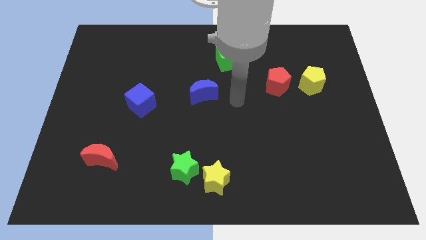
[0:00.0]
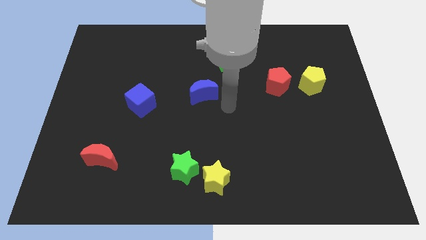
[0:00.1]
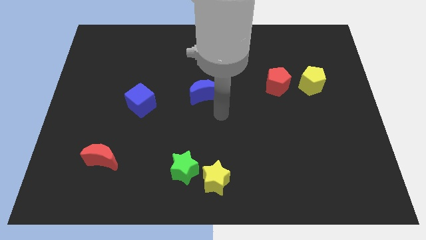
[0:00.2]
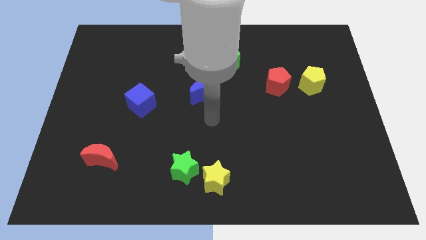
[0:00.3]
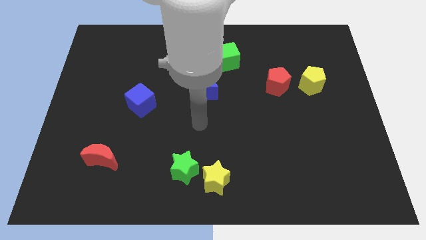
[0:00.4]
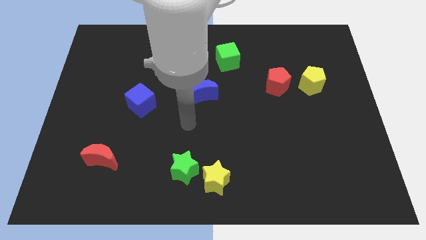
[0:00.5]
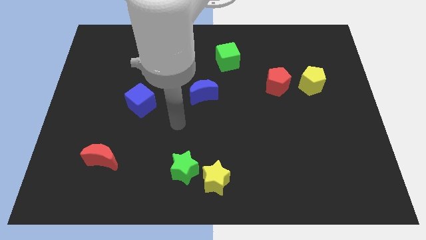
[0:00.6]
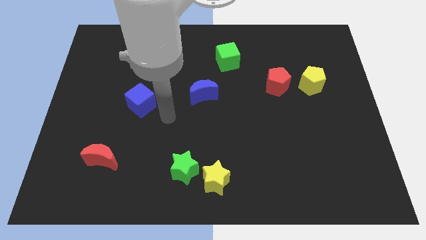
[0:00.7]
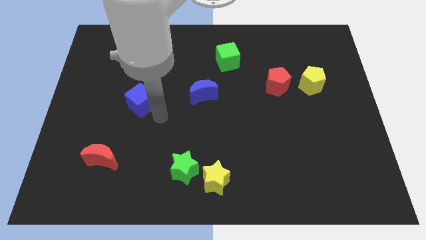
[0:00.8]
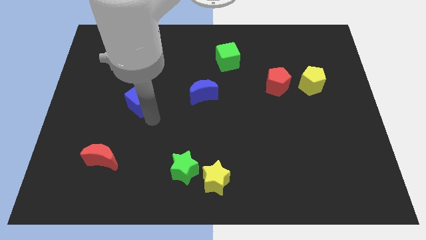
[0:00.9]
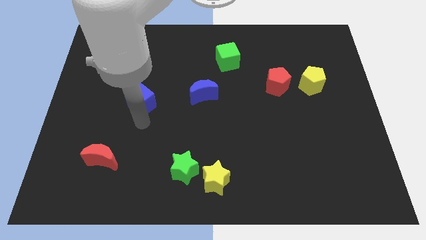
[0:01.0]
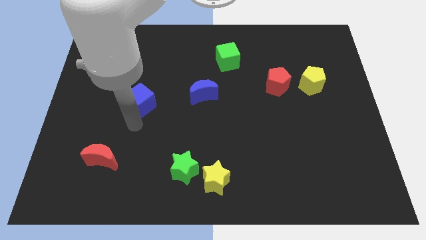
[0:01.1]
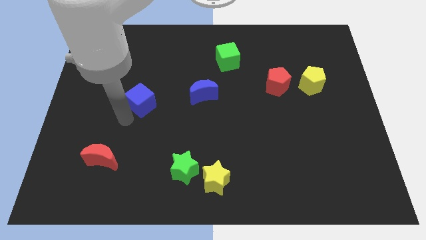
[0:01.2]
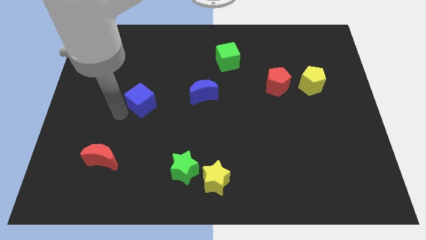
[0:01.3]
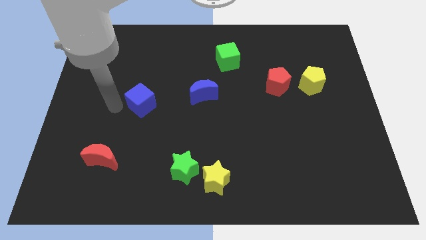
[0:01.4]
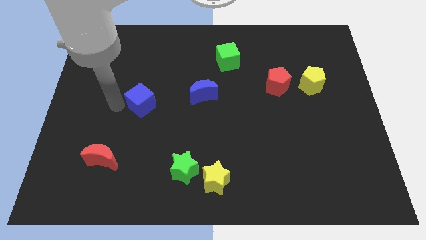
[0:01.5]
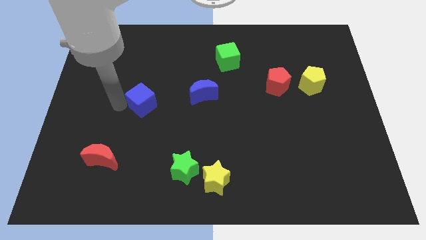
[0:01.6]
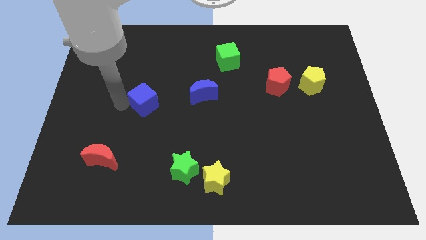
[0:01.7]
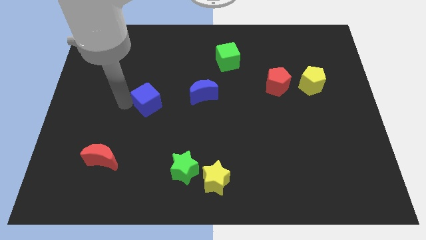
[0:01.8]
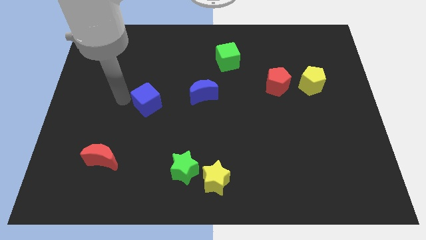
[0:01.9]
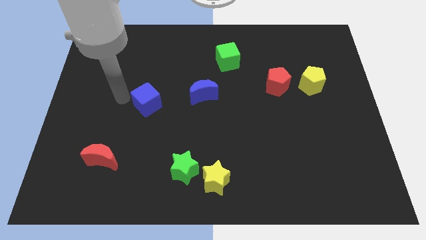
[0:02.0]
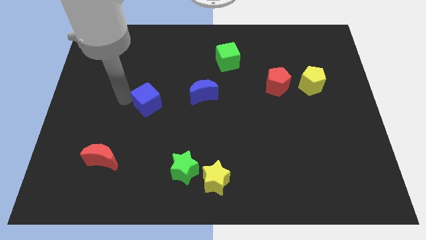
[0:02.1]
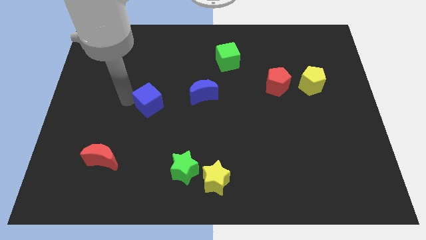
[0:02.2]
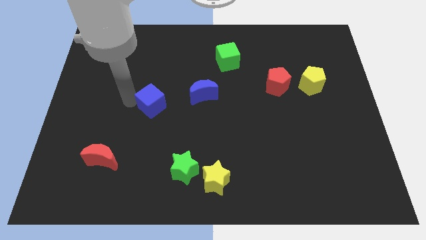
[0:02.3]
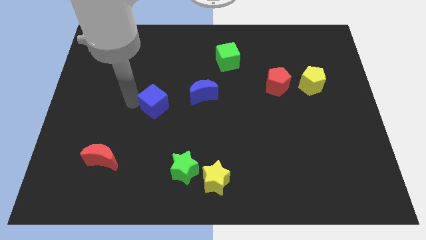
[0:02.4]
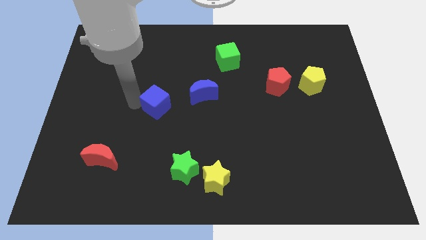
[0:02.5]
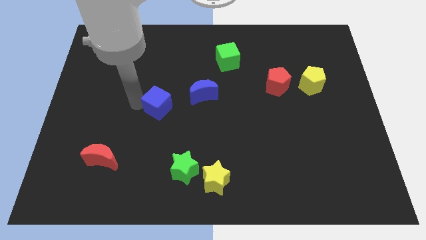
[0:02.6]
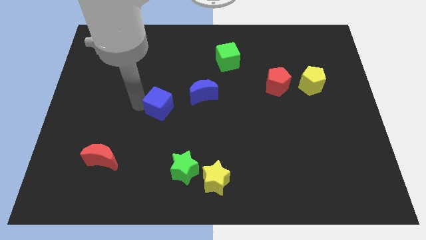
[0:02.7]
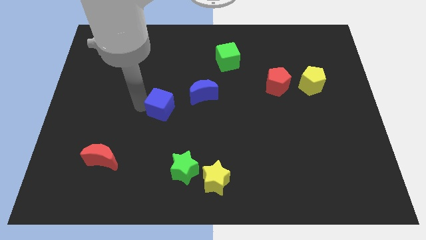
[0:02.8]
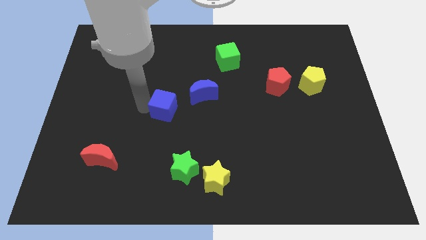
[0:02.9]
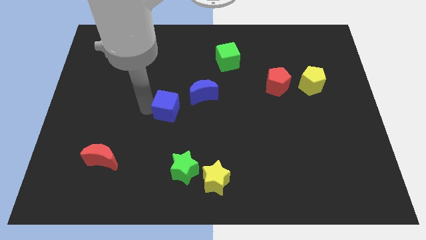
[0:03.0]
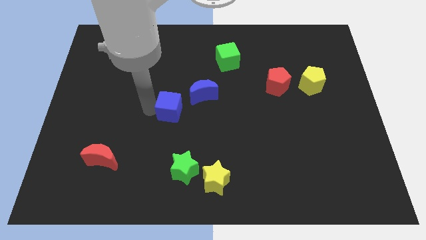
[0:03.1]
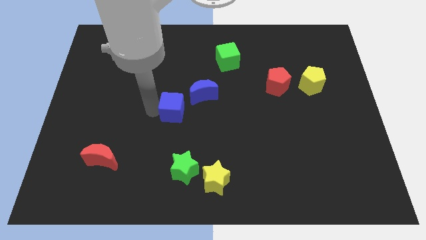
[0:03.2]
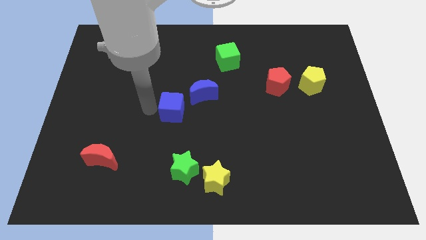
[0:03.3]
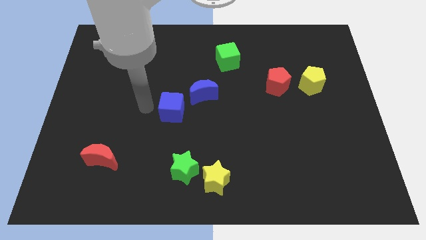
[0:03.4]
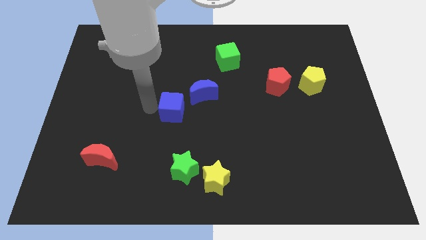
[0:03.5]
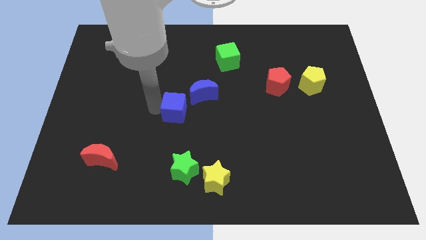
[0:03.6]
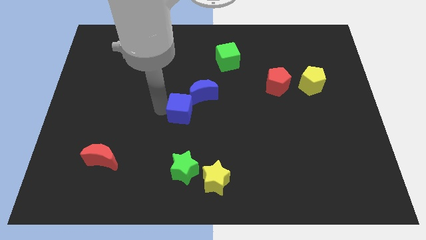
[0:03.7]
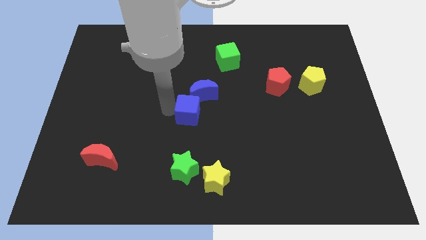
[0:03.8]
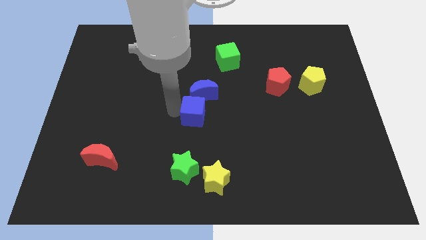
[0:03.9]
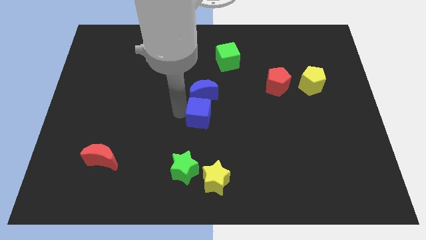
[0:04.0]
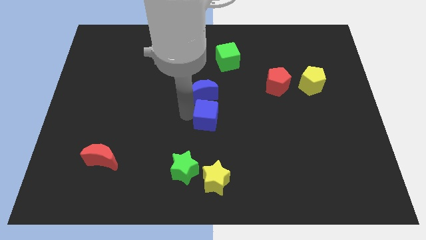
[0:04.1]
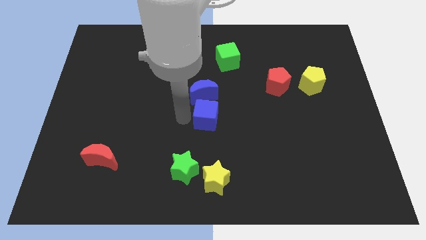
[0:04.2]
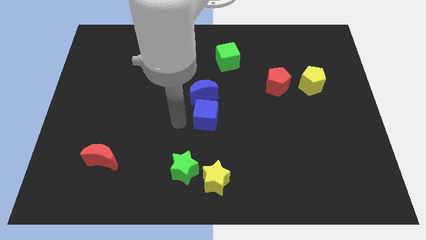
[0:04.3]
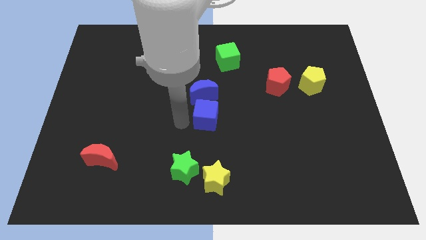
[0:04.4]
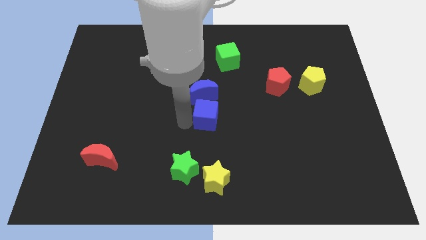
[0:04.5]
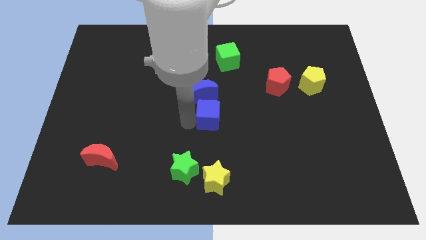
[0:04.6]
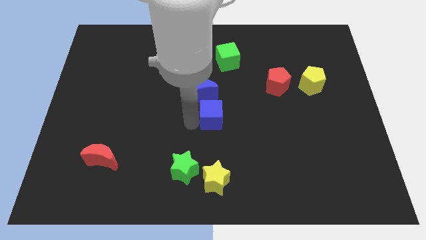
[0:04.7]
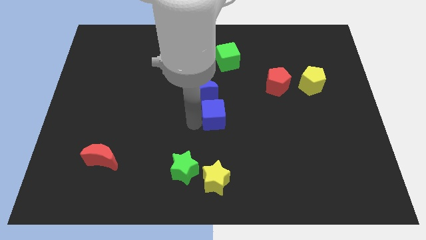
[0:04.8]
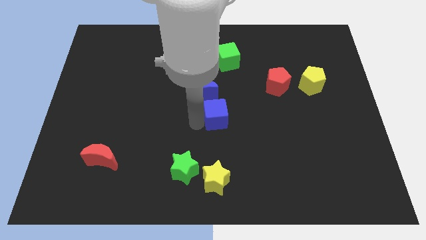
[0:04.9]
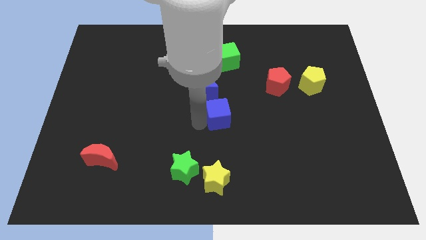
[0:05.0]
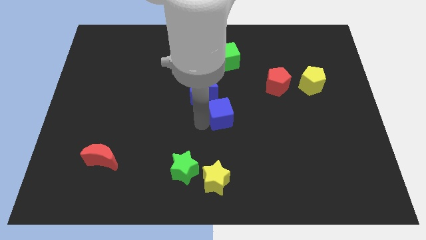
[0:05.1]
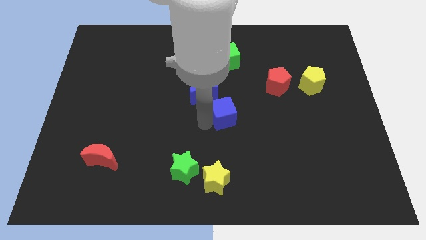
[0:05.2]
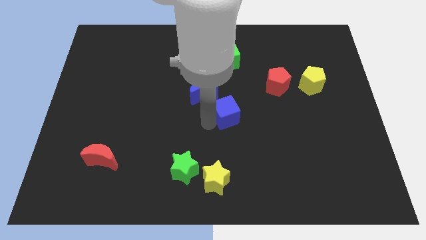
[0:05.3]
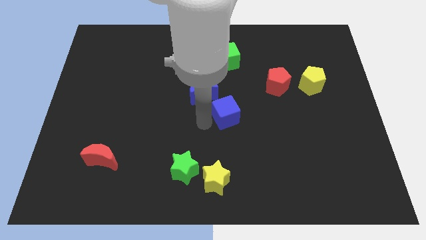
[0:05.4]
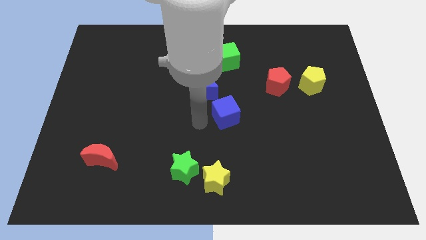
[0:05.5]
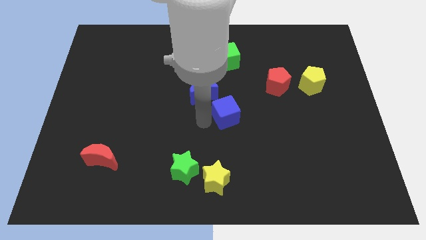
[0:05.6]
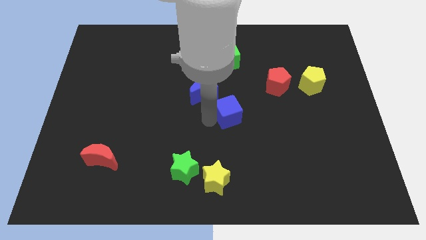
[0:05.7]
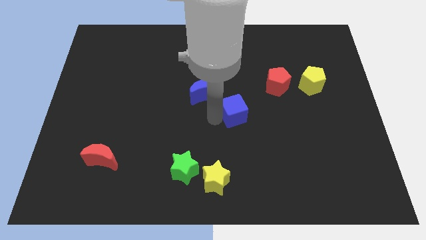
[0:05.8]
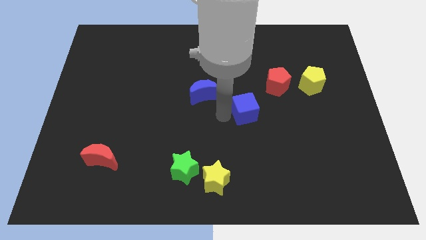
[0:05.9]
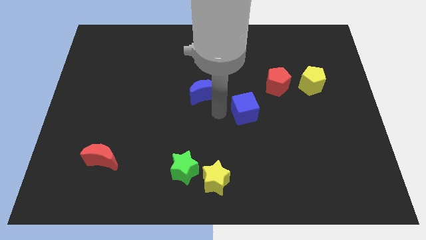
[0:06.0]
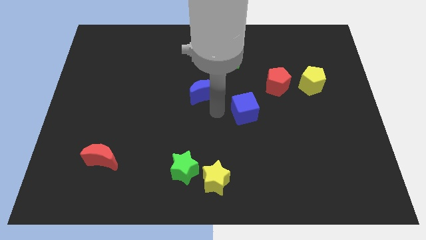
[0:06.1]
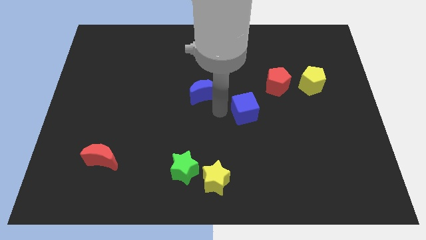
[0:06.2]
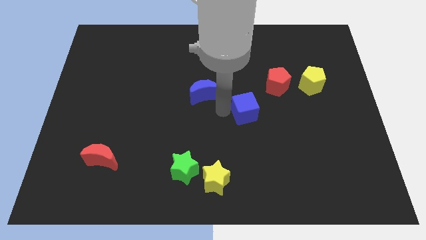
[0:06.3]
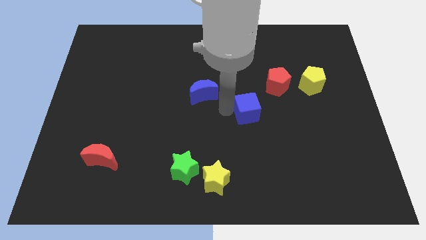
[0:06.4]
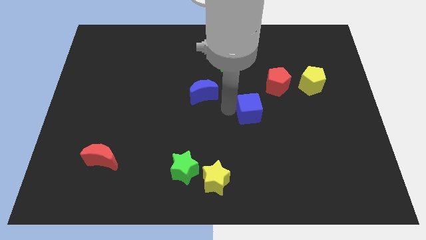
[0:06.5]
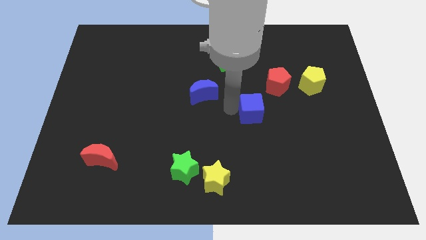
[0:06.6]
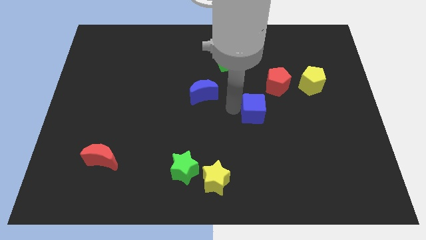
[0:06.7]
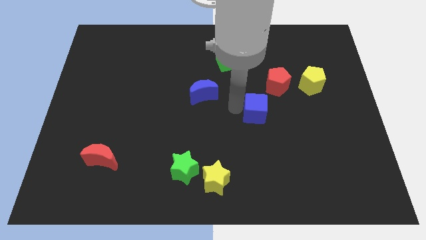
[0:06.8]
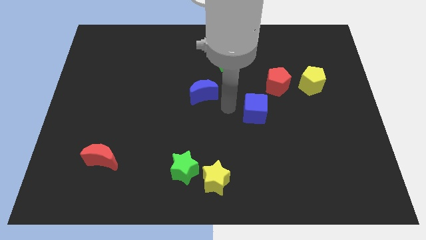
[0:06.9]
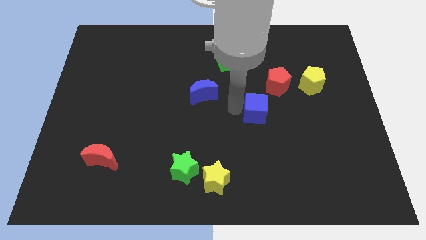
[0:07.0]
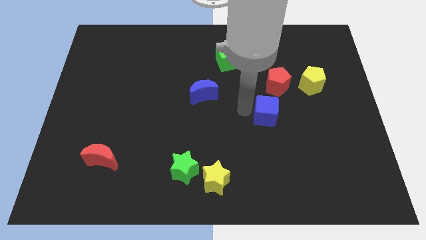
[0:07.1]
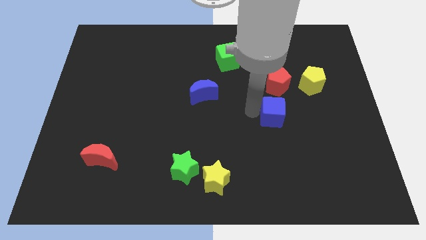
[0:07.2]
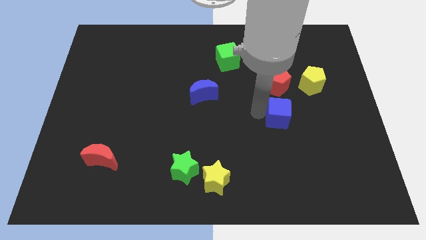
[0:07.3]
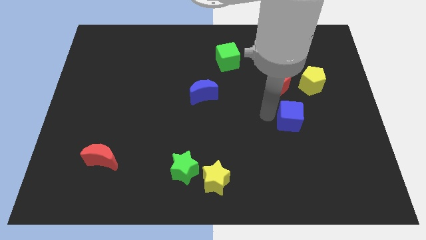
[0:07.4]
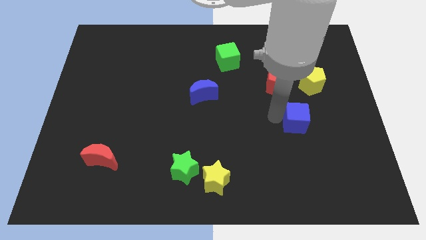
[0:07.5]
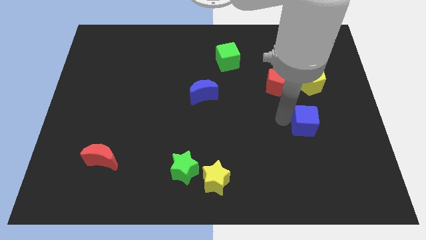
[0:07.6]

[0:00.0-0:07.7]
put the blue cube to the bottom side of the yellow pentagon
